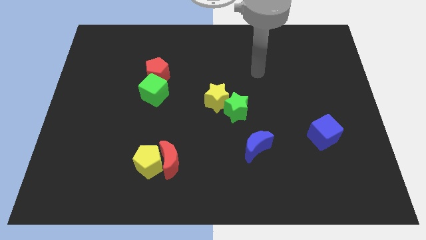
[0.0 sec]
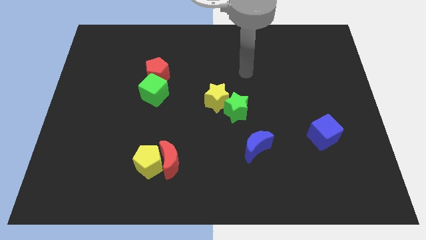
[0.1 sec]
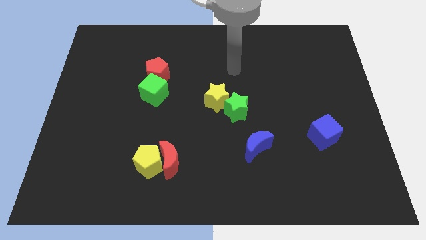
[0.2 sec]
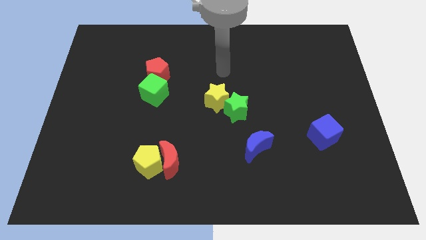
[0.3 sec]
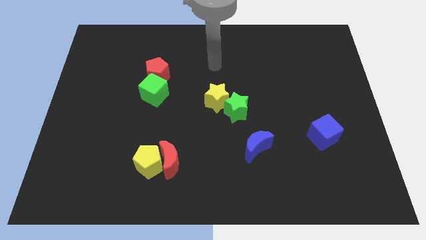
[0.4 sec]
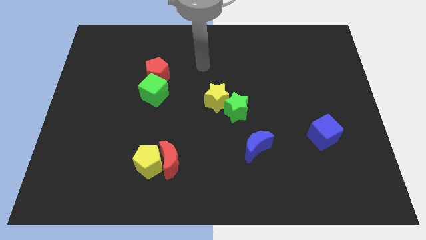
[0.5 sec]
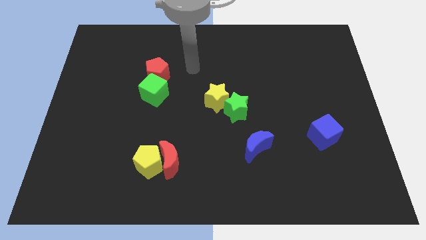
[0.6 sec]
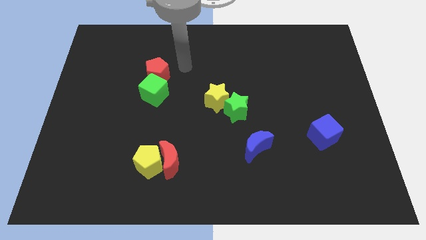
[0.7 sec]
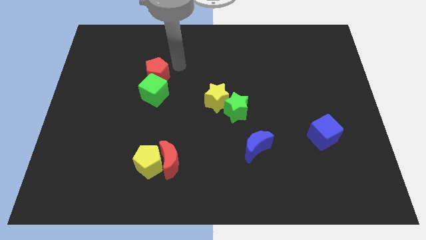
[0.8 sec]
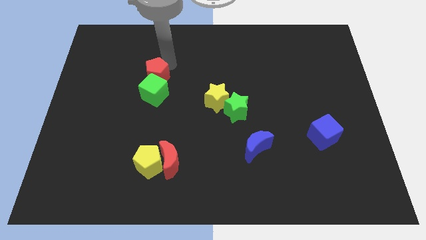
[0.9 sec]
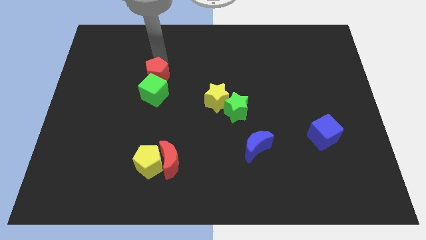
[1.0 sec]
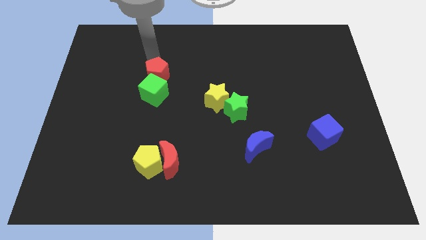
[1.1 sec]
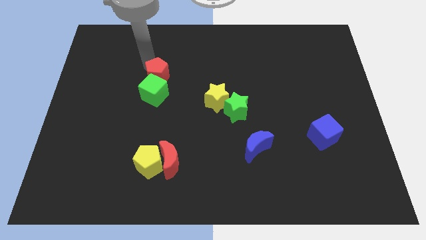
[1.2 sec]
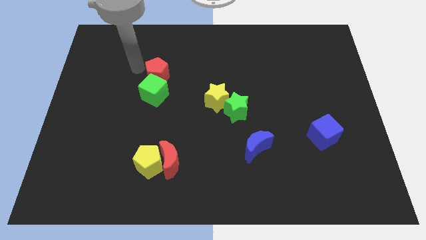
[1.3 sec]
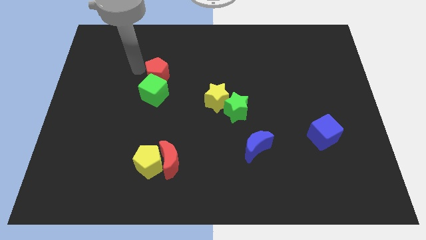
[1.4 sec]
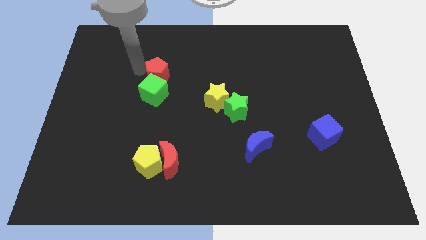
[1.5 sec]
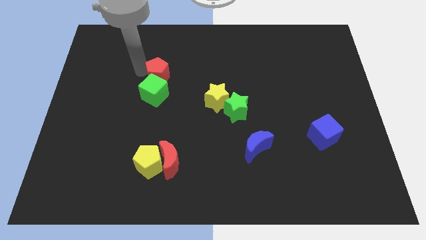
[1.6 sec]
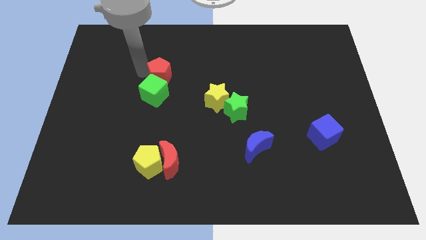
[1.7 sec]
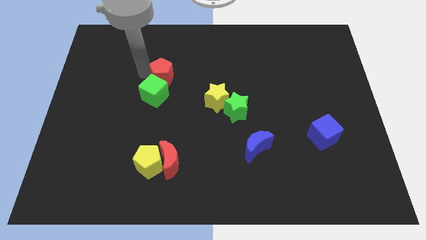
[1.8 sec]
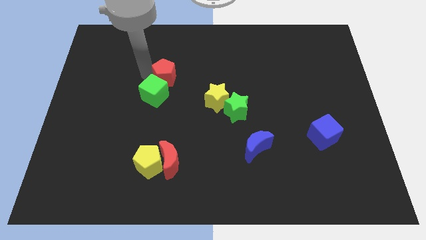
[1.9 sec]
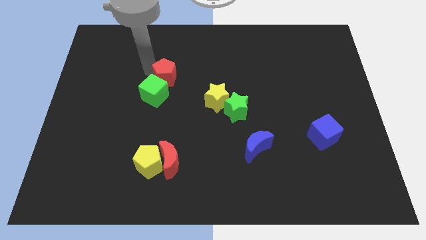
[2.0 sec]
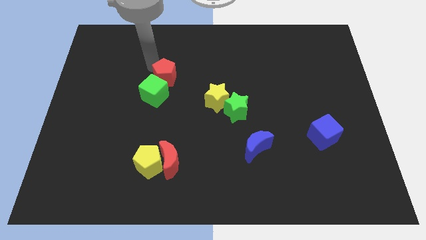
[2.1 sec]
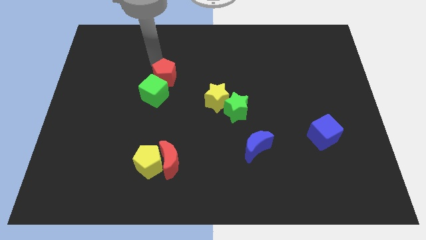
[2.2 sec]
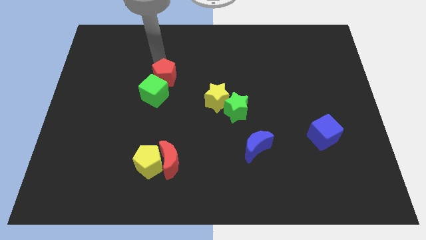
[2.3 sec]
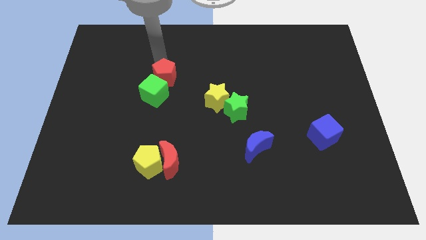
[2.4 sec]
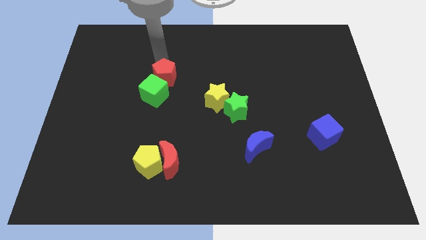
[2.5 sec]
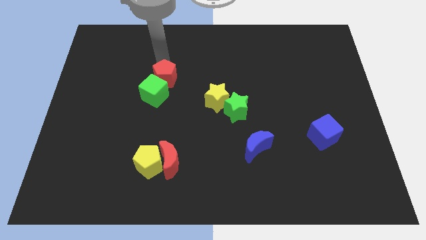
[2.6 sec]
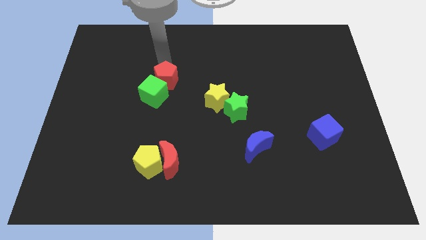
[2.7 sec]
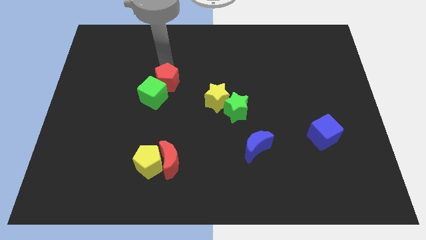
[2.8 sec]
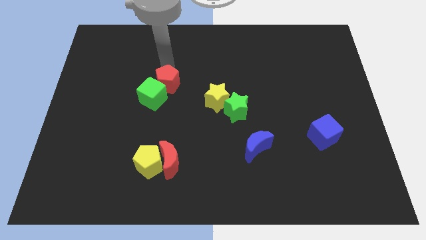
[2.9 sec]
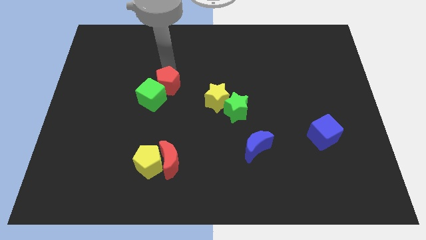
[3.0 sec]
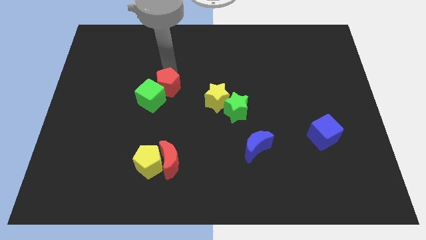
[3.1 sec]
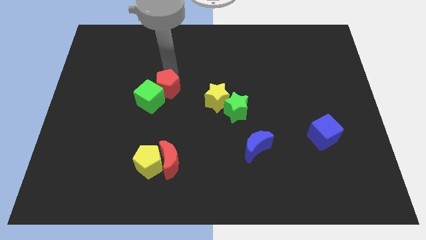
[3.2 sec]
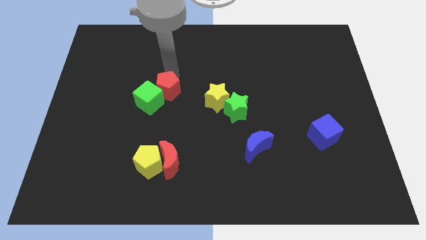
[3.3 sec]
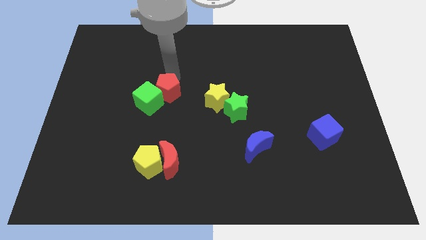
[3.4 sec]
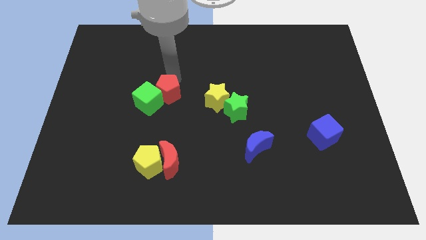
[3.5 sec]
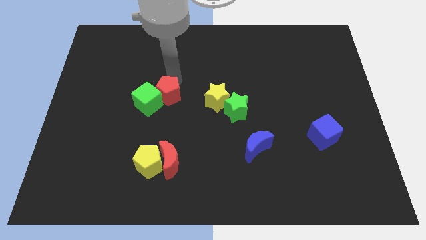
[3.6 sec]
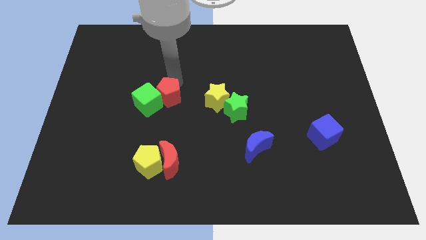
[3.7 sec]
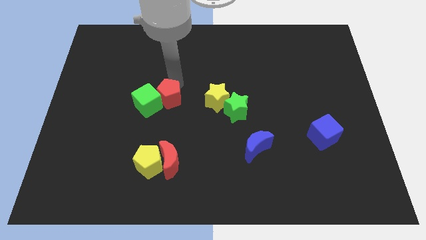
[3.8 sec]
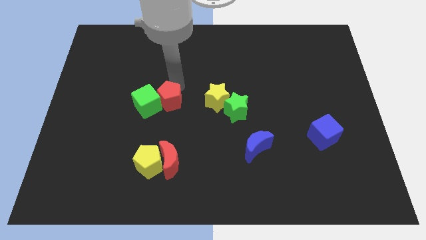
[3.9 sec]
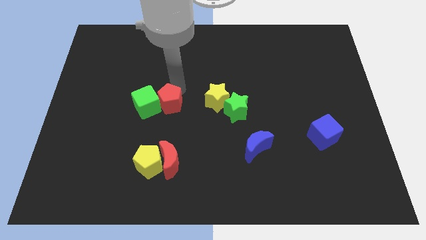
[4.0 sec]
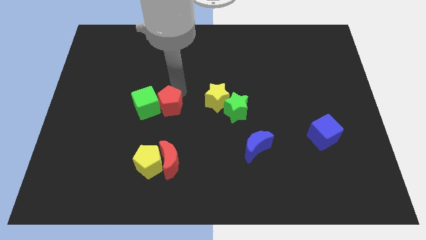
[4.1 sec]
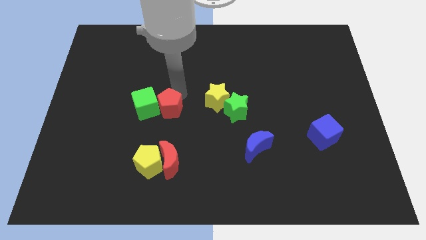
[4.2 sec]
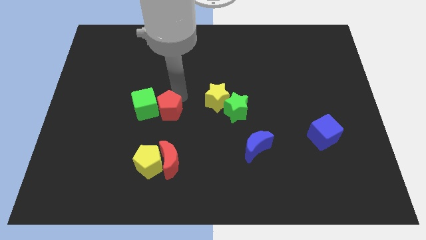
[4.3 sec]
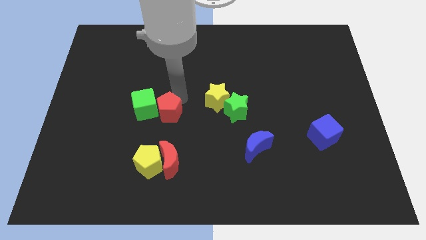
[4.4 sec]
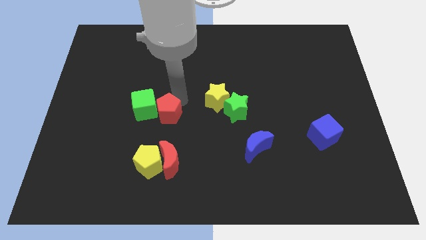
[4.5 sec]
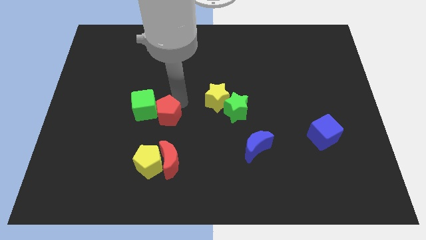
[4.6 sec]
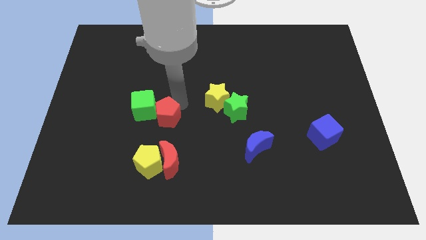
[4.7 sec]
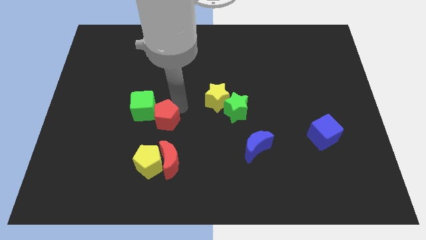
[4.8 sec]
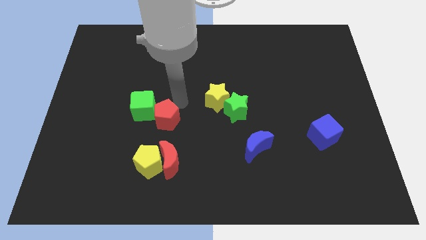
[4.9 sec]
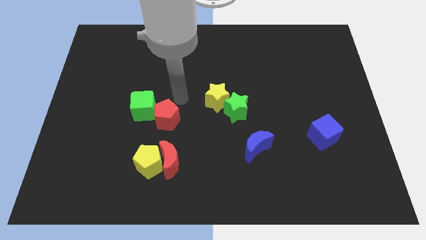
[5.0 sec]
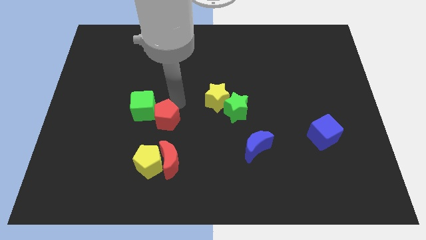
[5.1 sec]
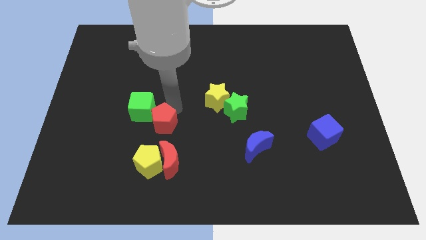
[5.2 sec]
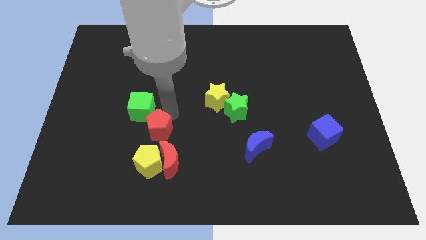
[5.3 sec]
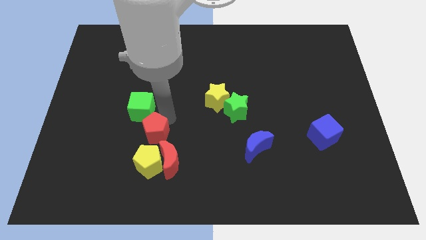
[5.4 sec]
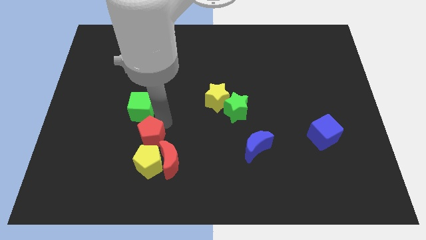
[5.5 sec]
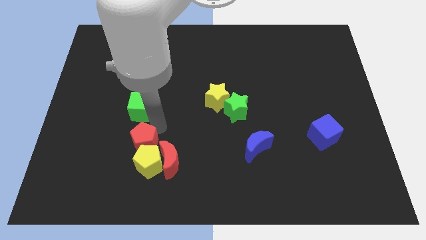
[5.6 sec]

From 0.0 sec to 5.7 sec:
slide the red pentagon towards the yellow pentagon
